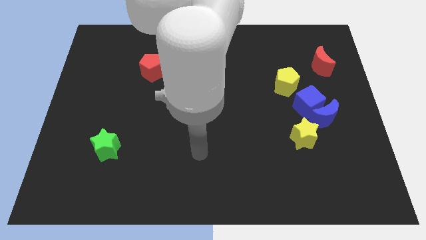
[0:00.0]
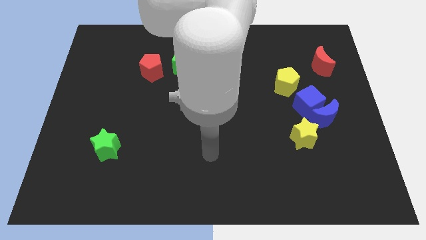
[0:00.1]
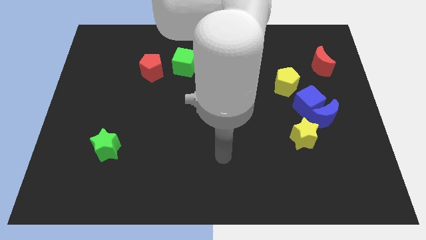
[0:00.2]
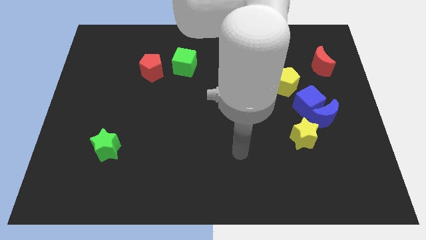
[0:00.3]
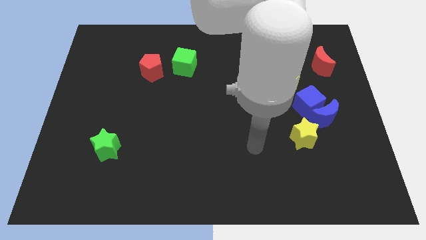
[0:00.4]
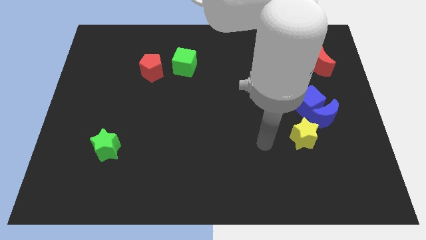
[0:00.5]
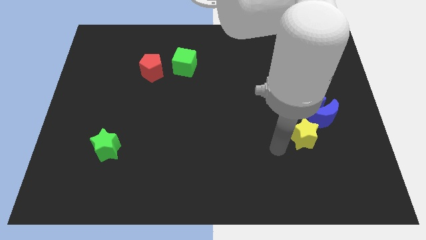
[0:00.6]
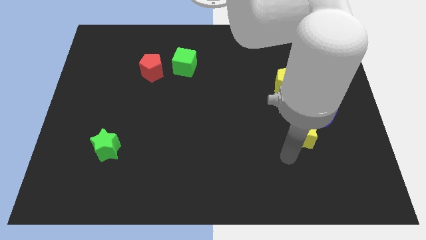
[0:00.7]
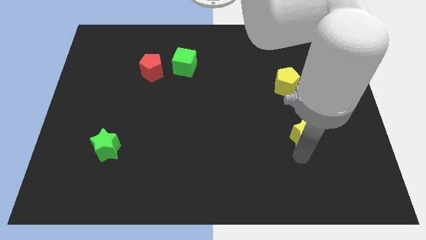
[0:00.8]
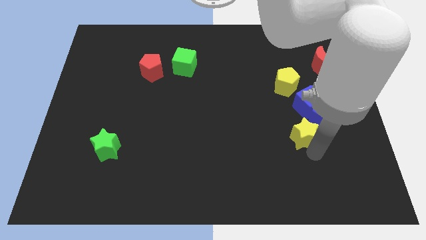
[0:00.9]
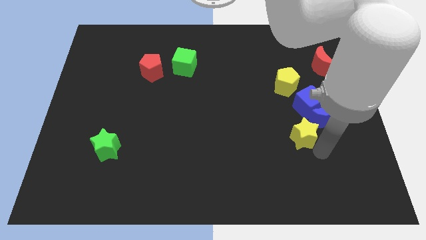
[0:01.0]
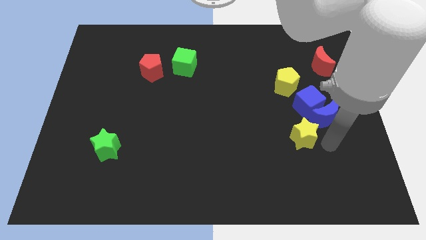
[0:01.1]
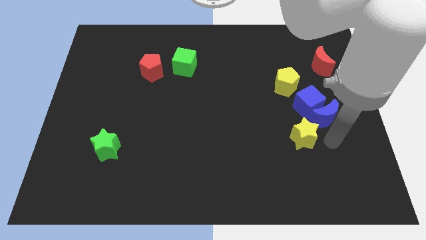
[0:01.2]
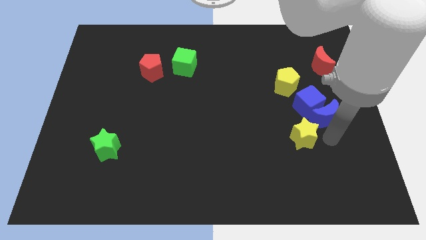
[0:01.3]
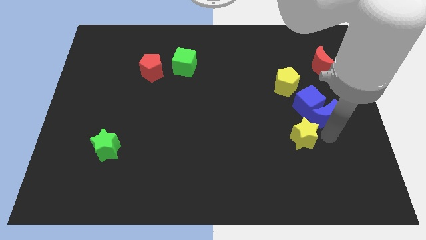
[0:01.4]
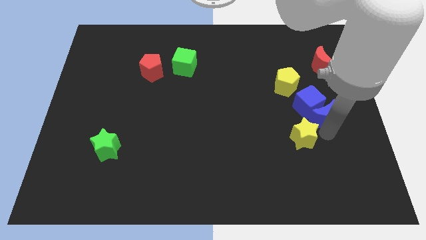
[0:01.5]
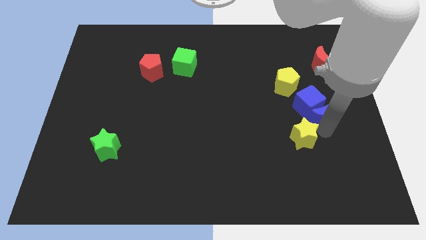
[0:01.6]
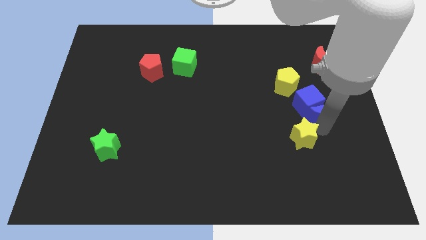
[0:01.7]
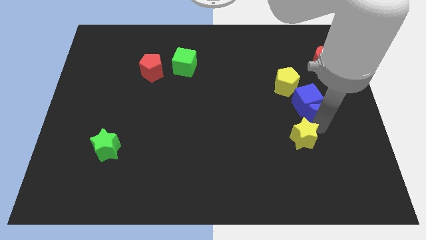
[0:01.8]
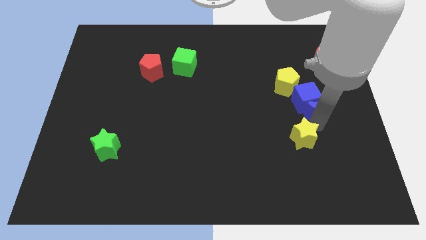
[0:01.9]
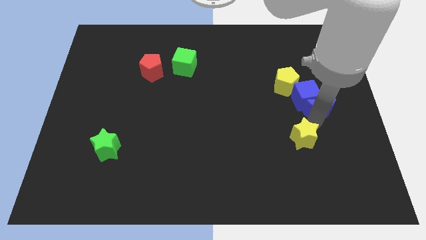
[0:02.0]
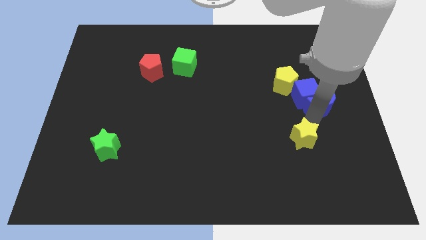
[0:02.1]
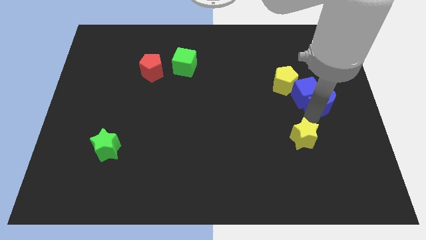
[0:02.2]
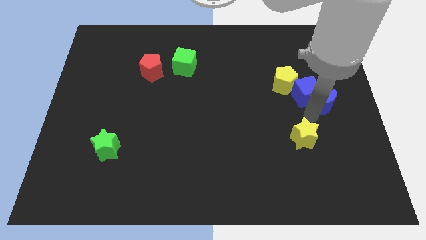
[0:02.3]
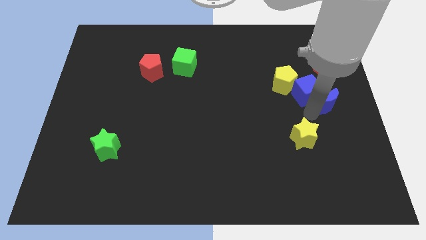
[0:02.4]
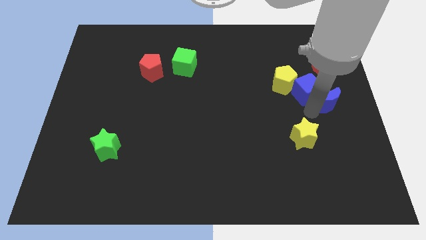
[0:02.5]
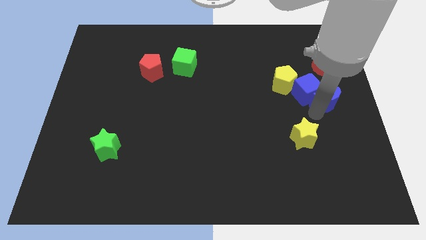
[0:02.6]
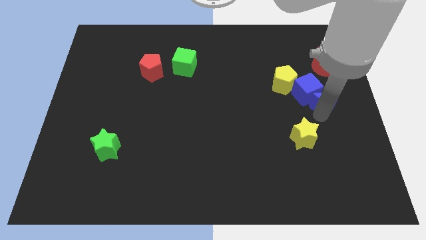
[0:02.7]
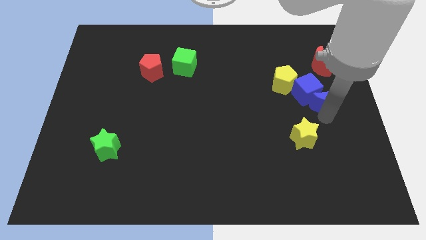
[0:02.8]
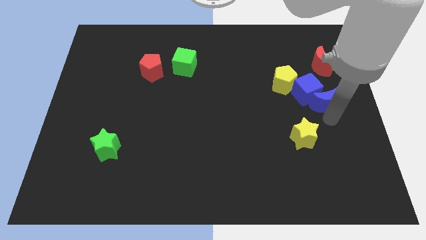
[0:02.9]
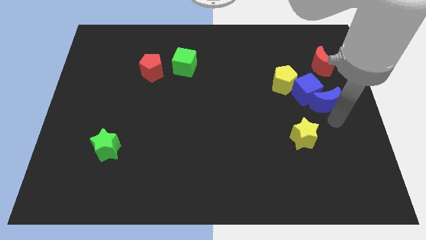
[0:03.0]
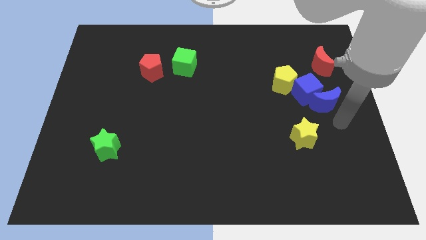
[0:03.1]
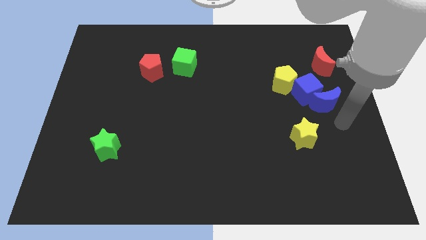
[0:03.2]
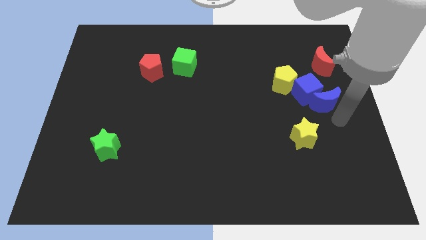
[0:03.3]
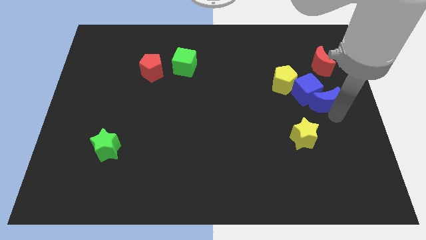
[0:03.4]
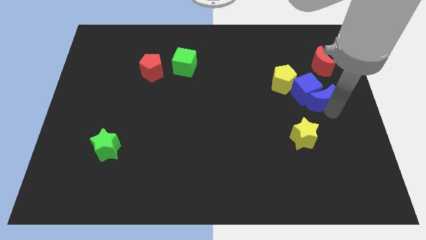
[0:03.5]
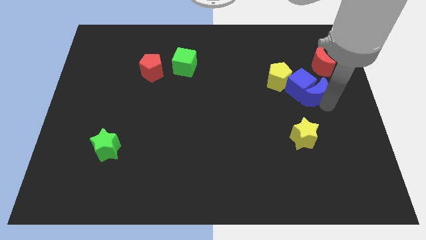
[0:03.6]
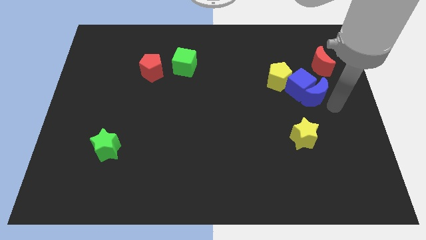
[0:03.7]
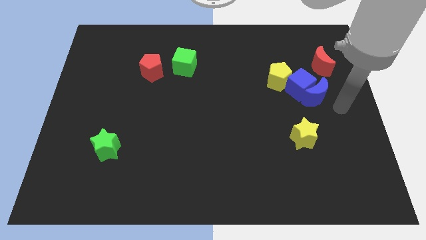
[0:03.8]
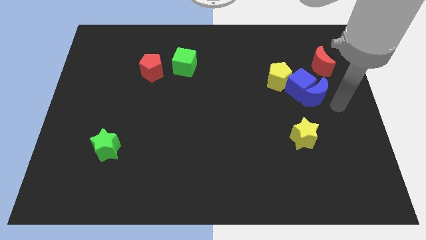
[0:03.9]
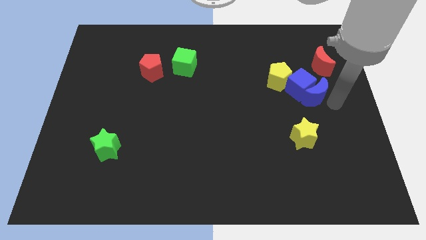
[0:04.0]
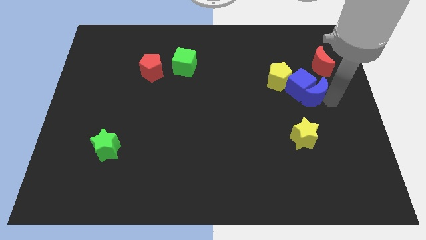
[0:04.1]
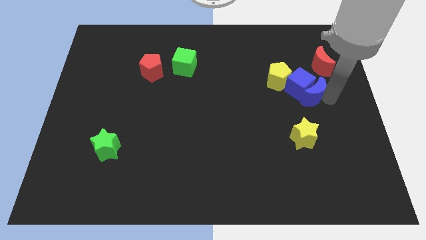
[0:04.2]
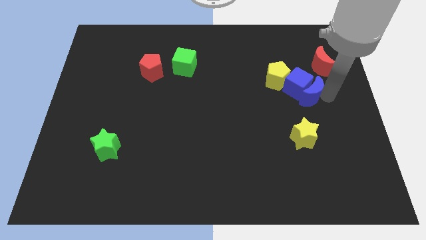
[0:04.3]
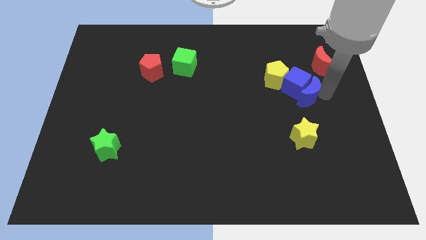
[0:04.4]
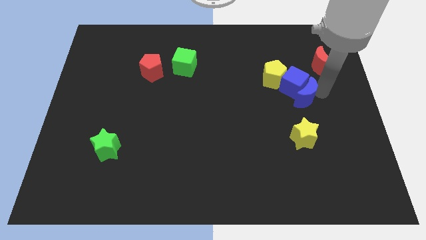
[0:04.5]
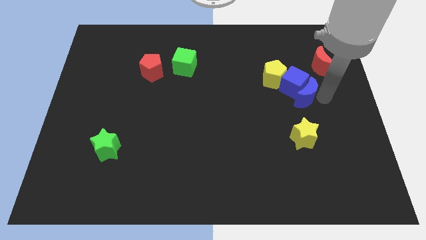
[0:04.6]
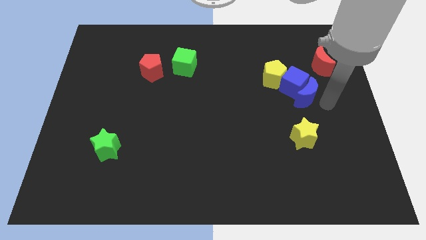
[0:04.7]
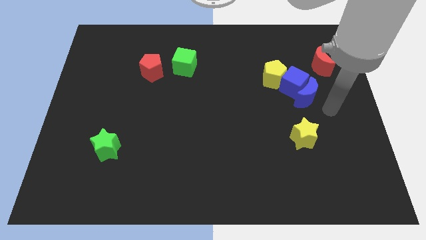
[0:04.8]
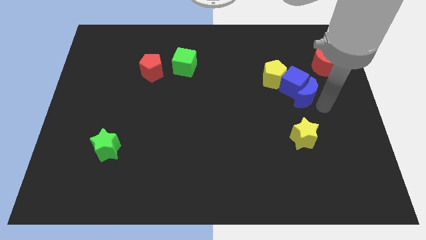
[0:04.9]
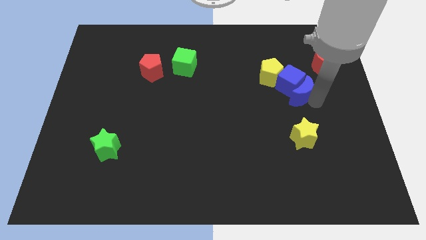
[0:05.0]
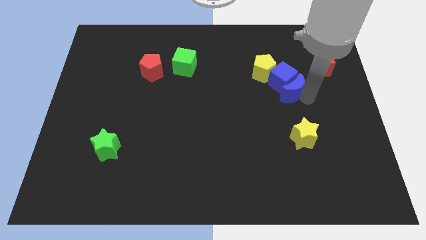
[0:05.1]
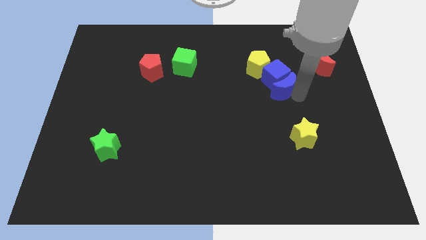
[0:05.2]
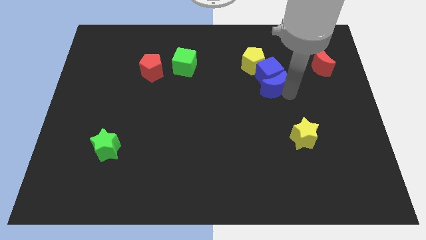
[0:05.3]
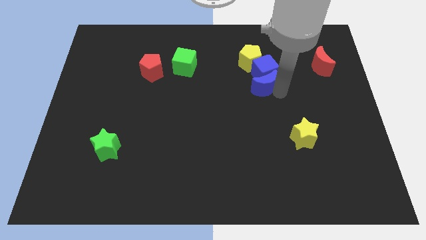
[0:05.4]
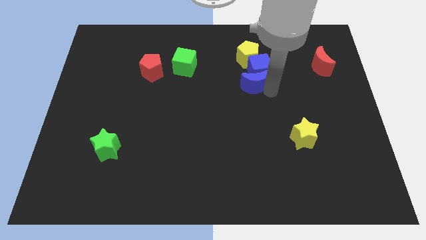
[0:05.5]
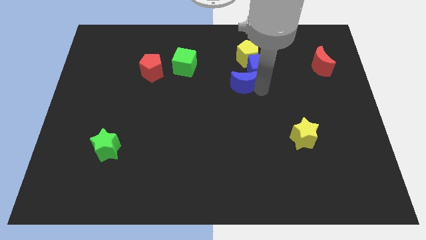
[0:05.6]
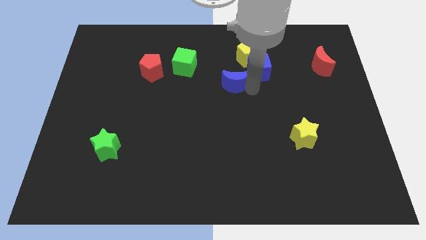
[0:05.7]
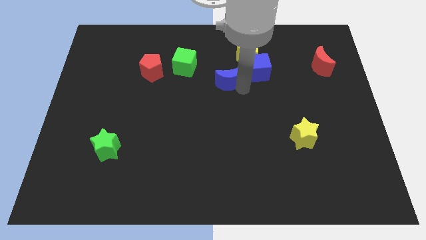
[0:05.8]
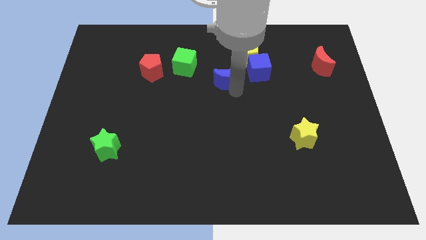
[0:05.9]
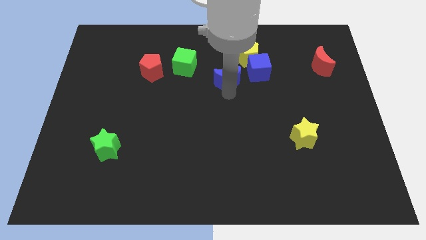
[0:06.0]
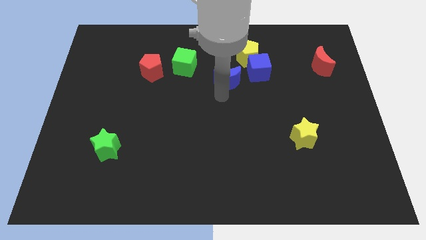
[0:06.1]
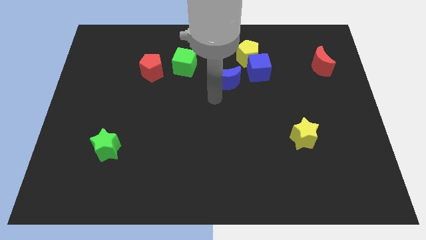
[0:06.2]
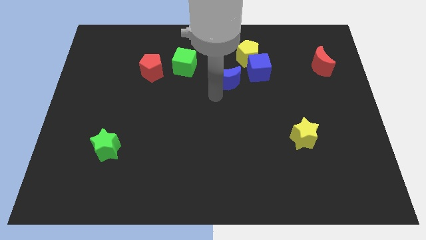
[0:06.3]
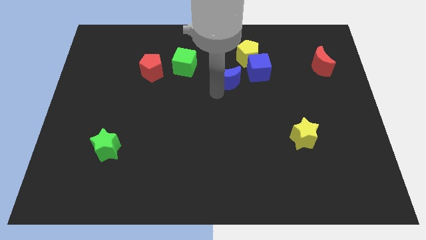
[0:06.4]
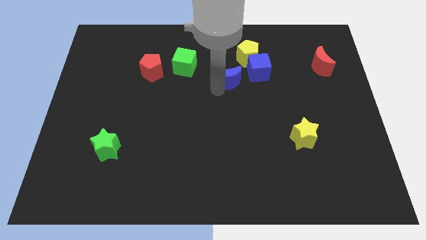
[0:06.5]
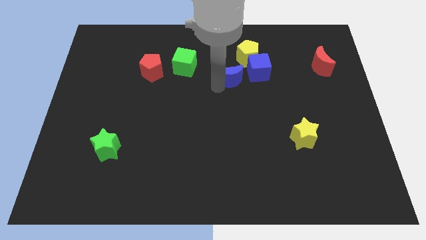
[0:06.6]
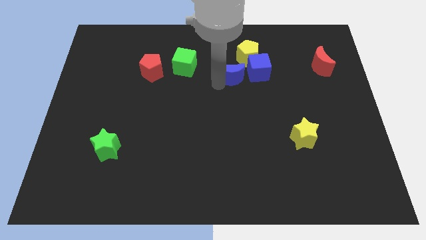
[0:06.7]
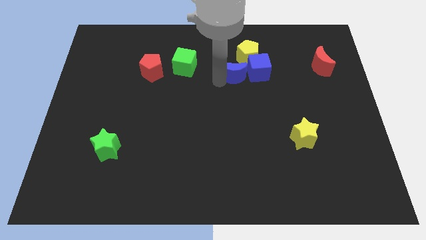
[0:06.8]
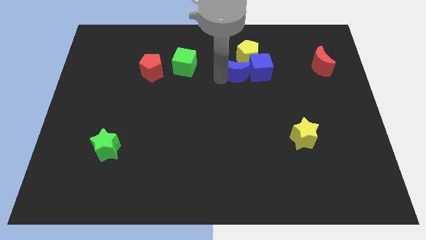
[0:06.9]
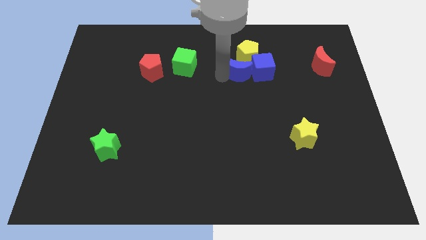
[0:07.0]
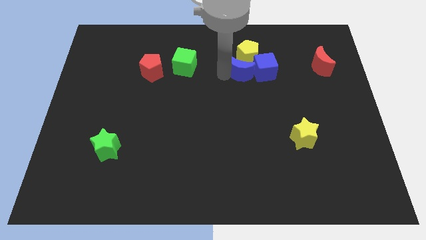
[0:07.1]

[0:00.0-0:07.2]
move the blue moon close to the yellow pentagon
